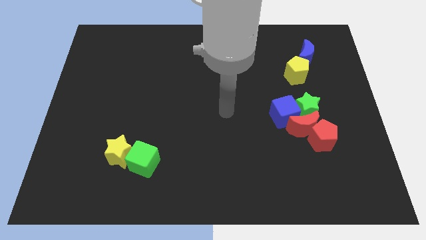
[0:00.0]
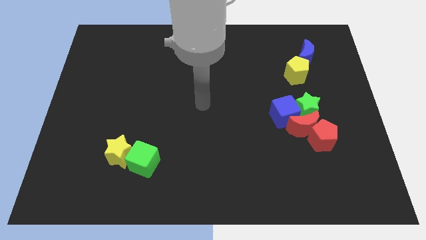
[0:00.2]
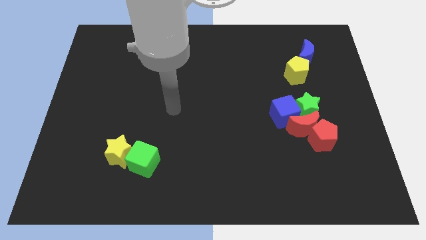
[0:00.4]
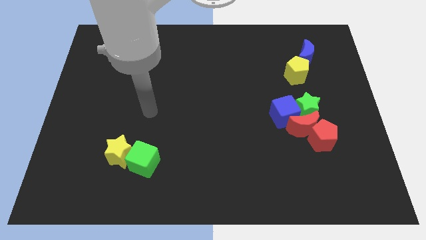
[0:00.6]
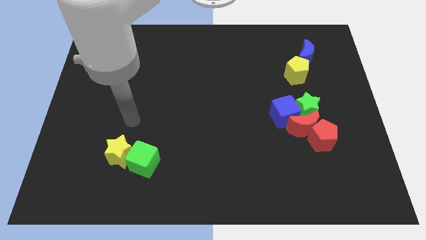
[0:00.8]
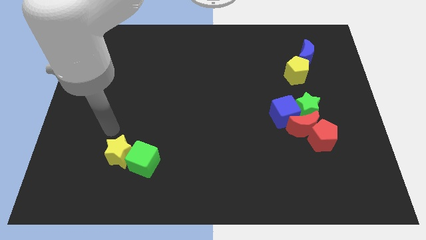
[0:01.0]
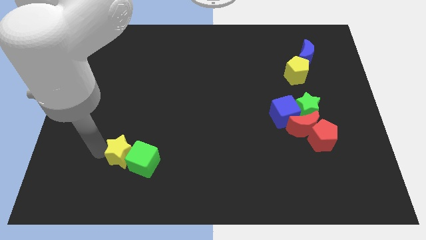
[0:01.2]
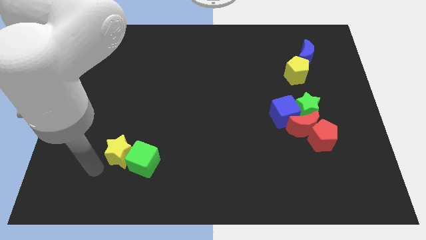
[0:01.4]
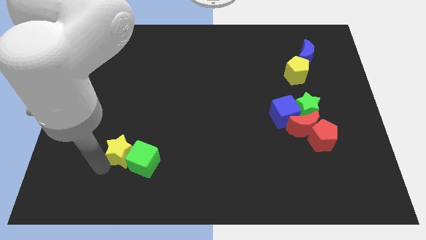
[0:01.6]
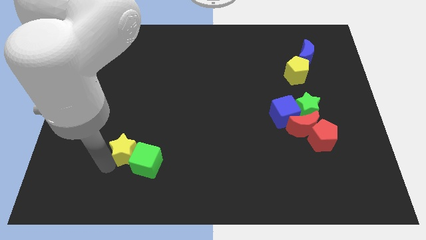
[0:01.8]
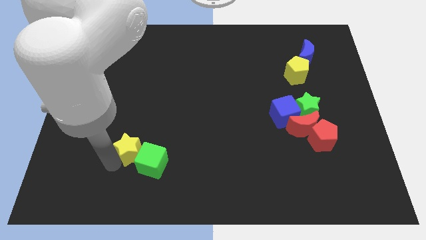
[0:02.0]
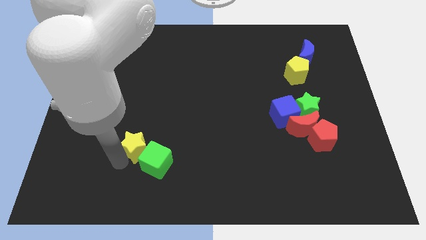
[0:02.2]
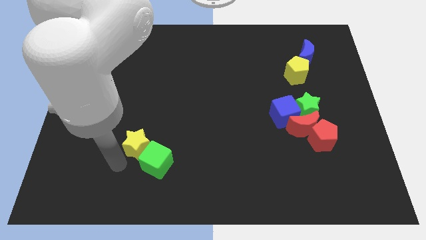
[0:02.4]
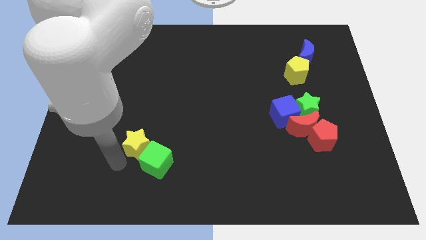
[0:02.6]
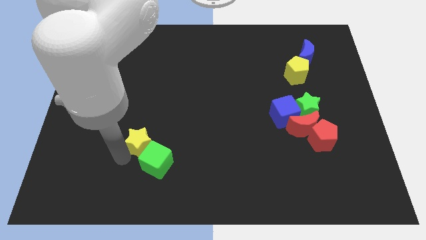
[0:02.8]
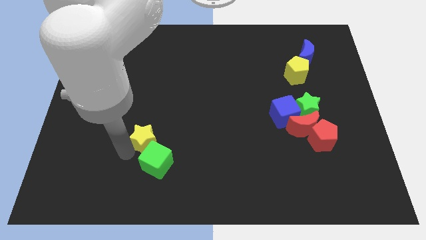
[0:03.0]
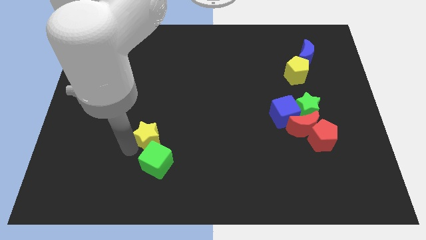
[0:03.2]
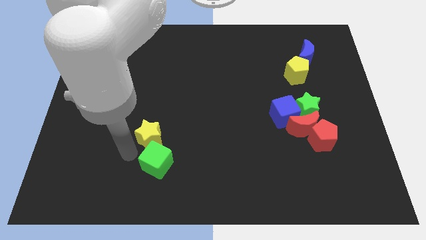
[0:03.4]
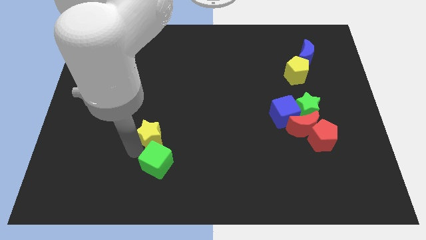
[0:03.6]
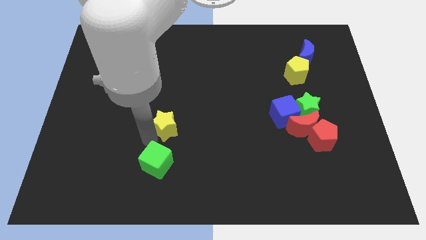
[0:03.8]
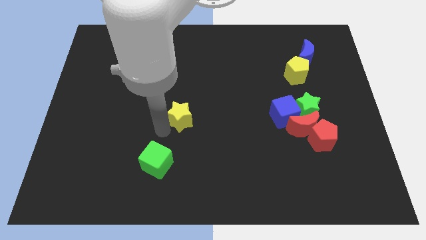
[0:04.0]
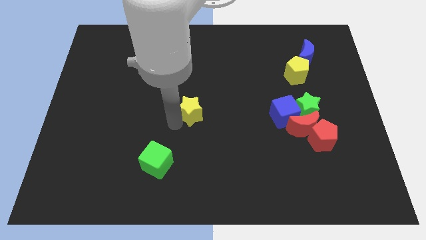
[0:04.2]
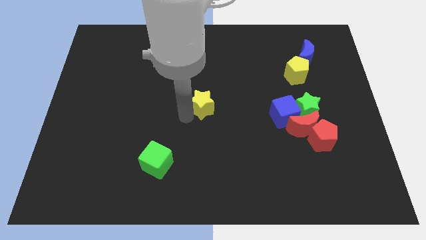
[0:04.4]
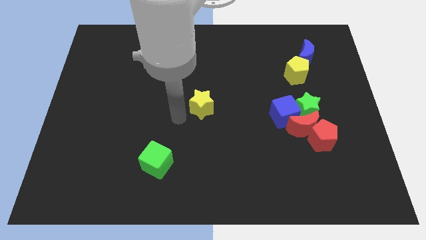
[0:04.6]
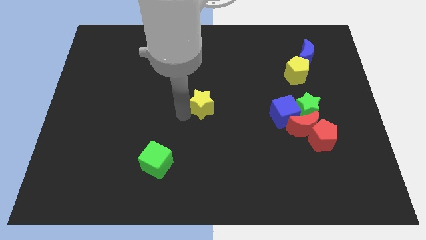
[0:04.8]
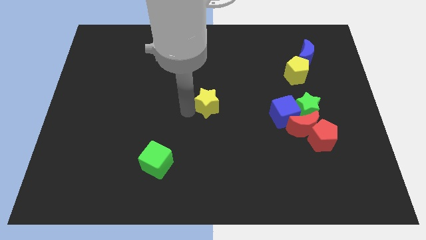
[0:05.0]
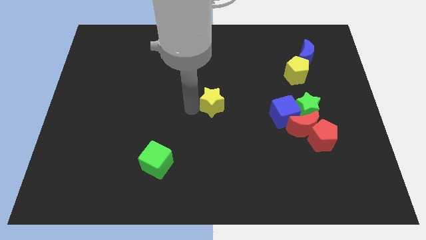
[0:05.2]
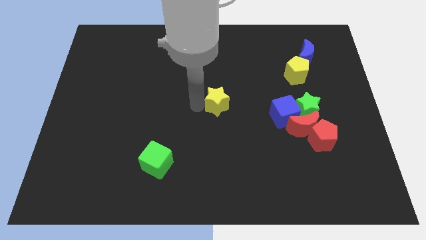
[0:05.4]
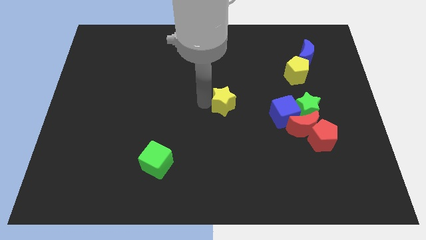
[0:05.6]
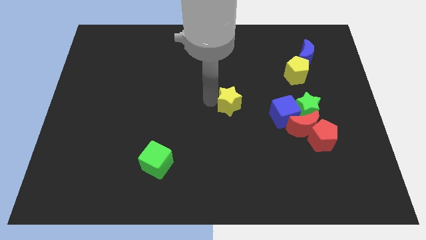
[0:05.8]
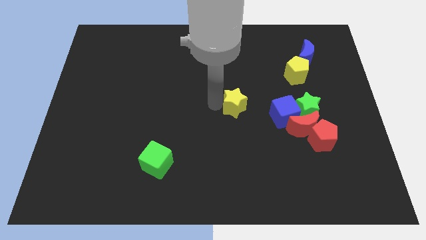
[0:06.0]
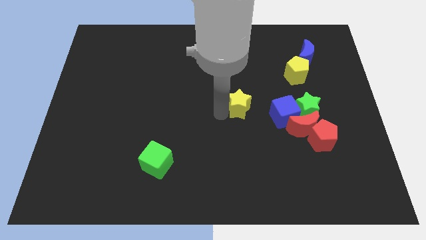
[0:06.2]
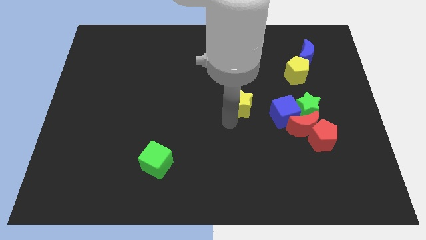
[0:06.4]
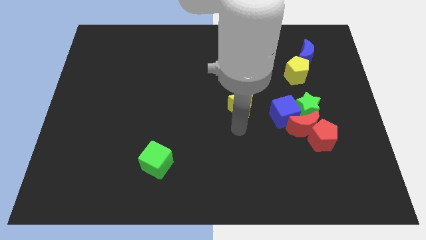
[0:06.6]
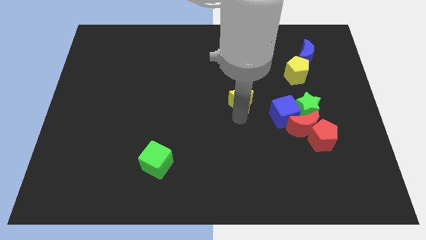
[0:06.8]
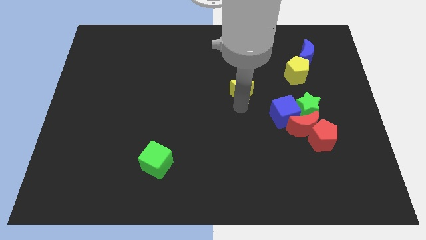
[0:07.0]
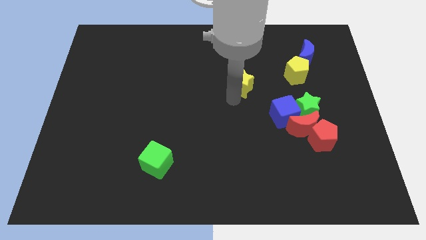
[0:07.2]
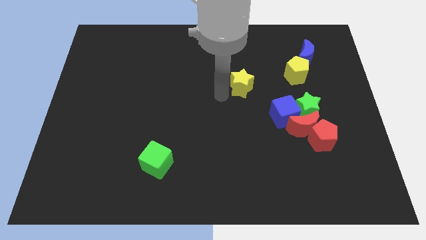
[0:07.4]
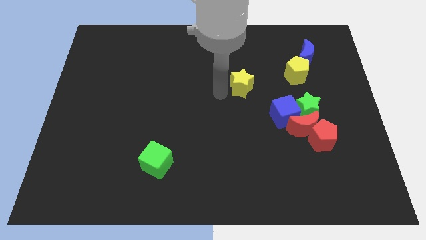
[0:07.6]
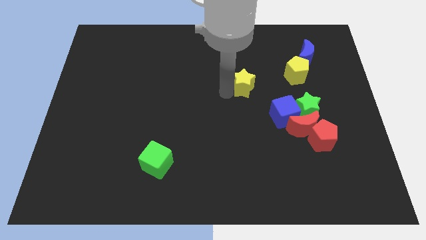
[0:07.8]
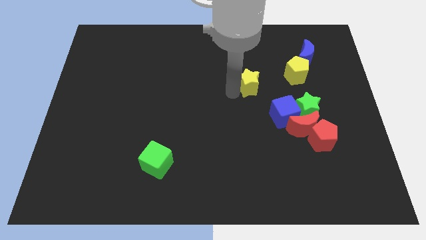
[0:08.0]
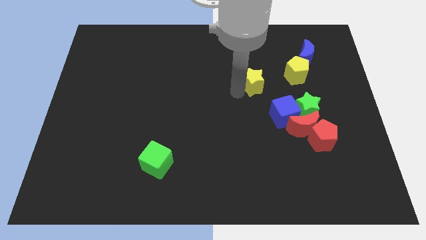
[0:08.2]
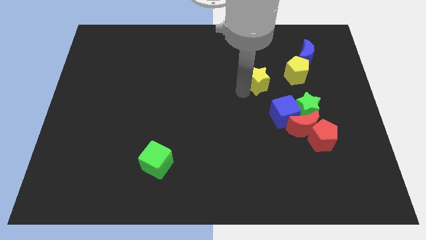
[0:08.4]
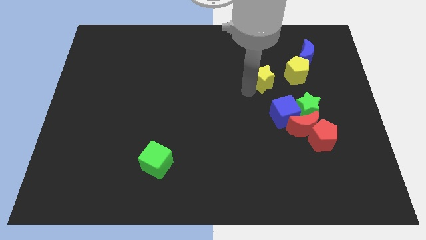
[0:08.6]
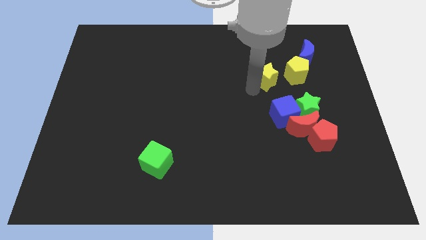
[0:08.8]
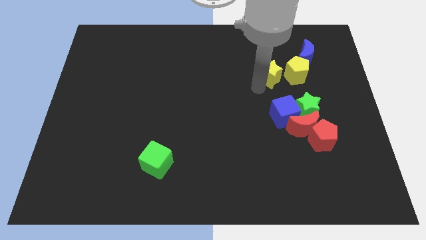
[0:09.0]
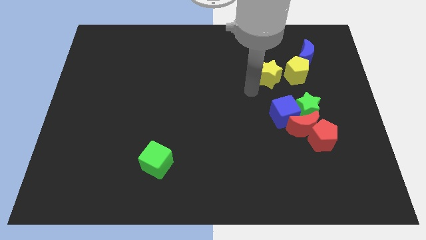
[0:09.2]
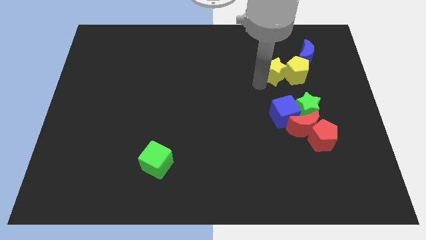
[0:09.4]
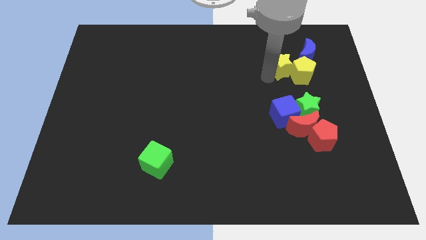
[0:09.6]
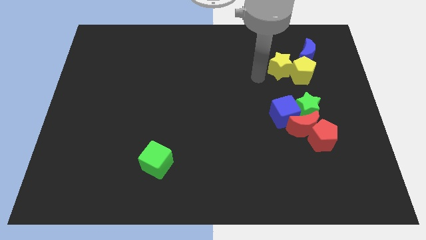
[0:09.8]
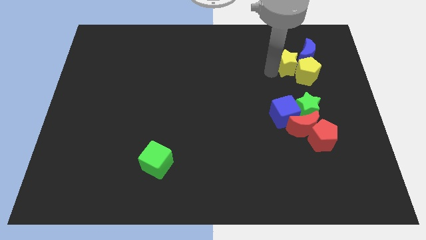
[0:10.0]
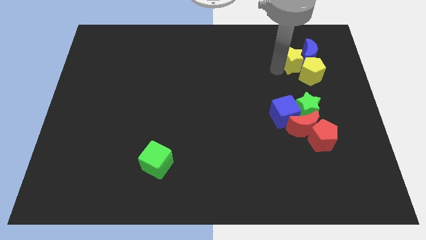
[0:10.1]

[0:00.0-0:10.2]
slide the yellow star close to the blue moon

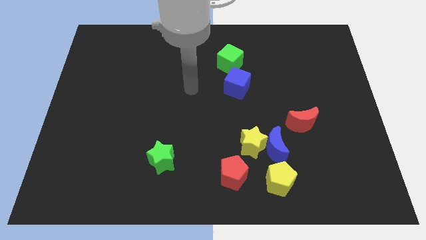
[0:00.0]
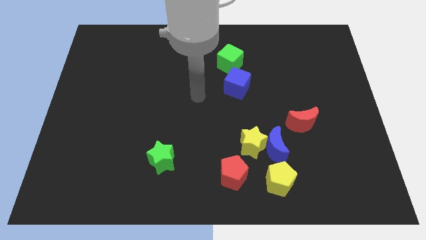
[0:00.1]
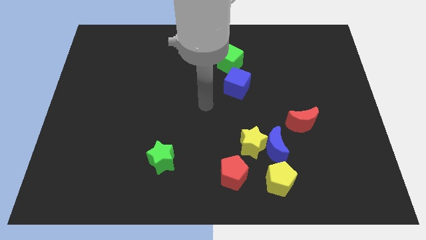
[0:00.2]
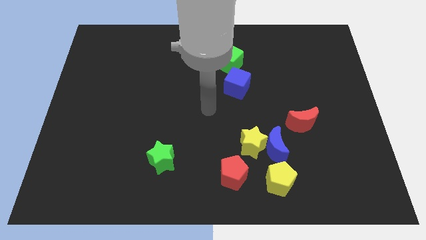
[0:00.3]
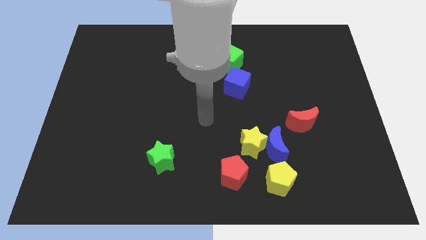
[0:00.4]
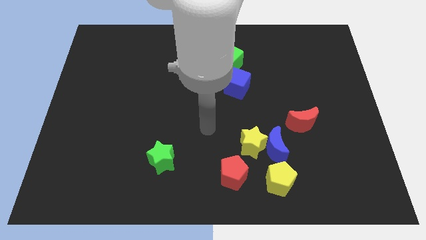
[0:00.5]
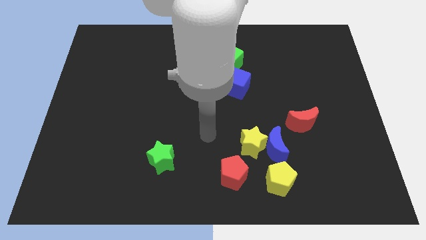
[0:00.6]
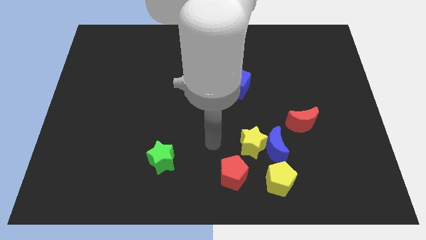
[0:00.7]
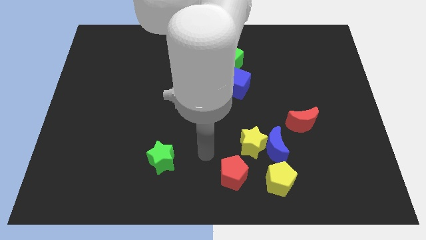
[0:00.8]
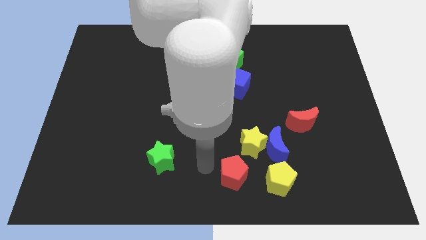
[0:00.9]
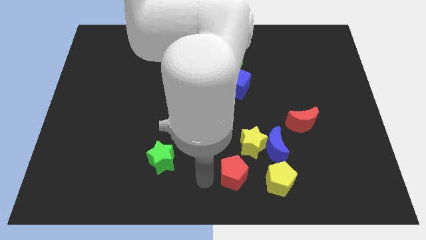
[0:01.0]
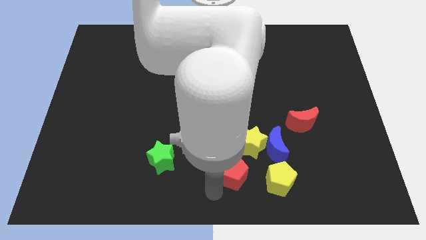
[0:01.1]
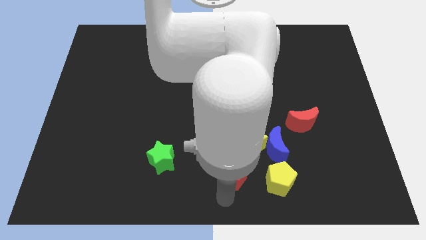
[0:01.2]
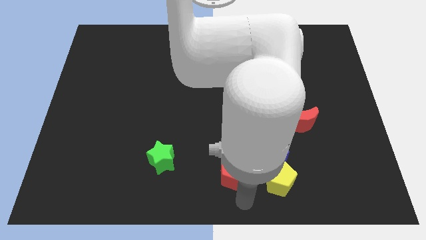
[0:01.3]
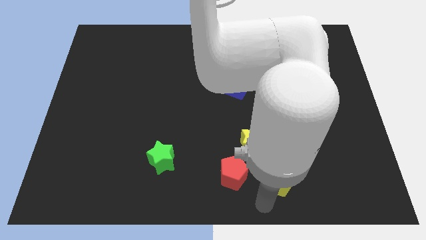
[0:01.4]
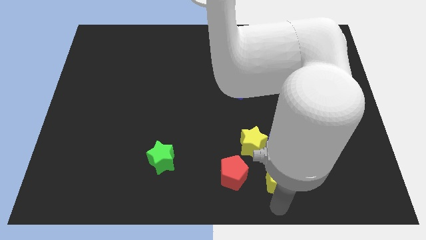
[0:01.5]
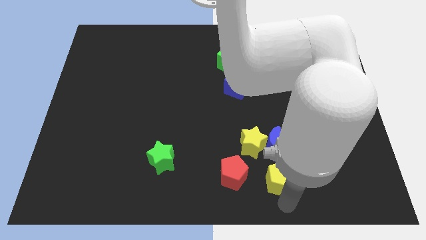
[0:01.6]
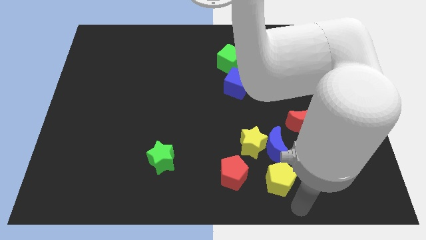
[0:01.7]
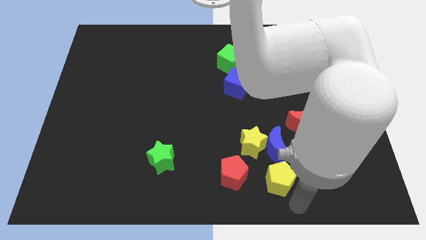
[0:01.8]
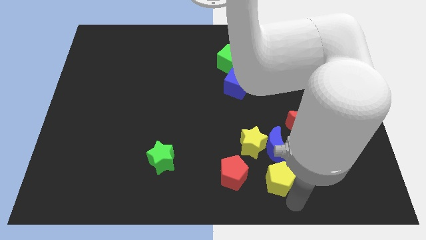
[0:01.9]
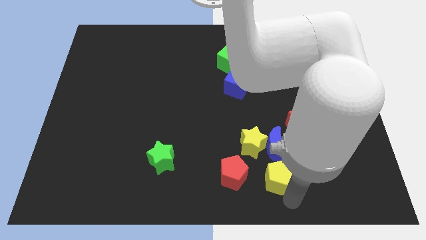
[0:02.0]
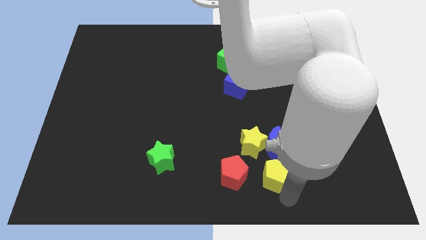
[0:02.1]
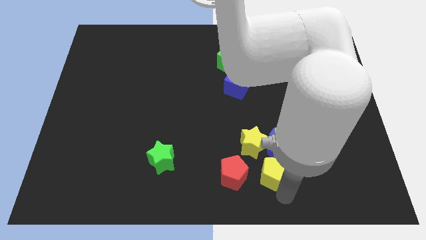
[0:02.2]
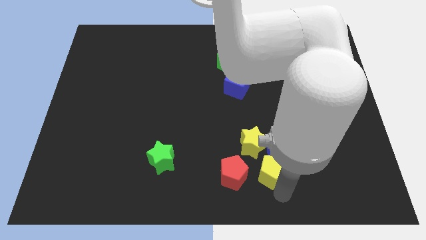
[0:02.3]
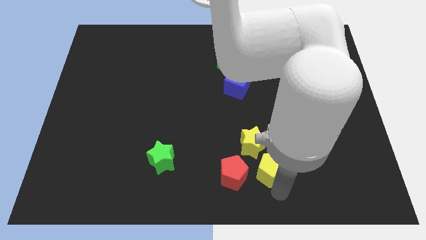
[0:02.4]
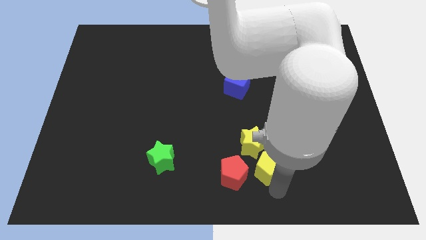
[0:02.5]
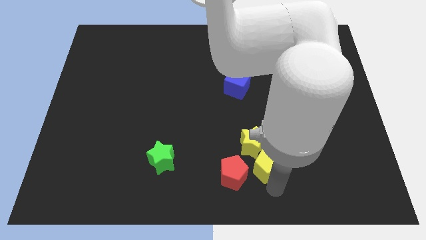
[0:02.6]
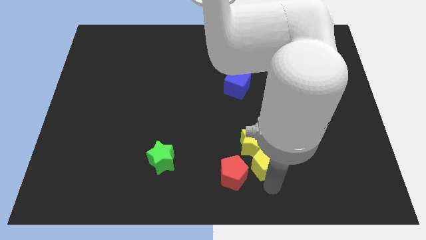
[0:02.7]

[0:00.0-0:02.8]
push the yellow pentagon close to the yellow star
